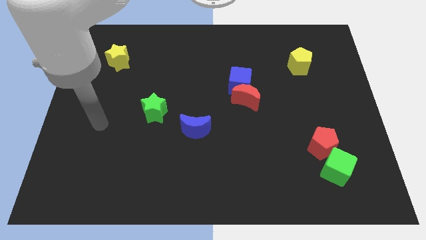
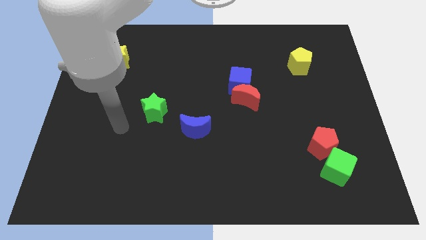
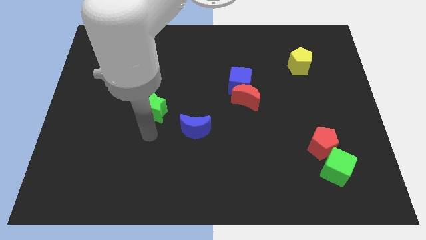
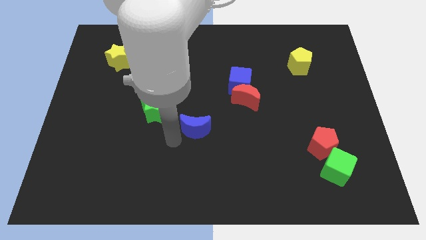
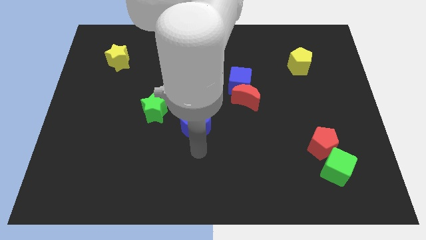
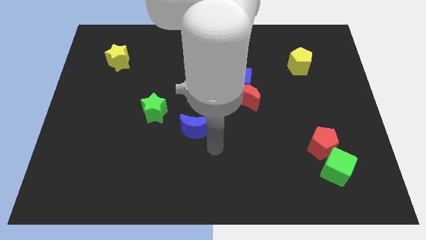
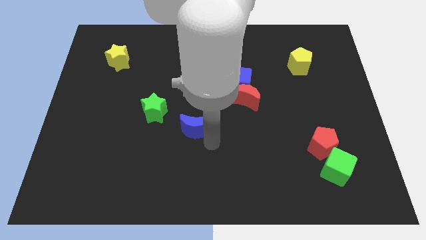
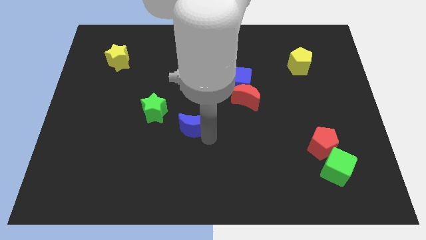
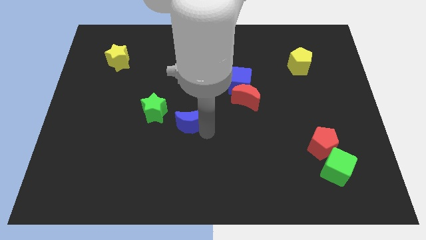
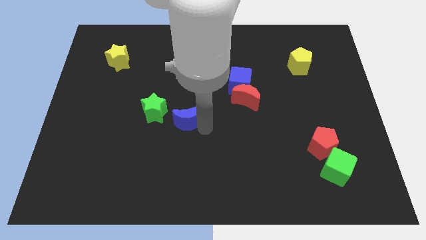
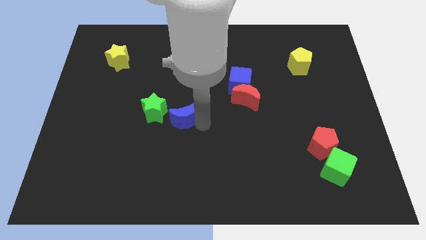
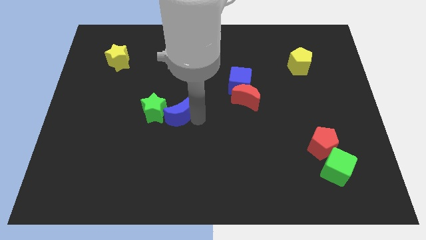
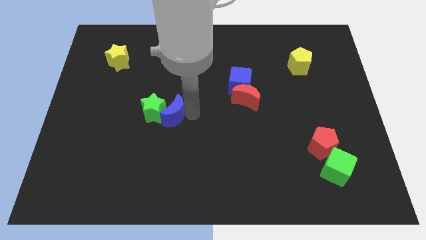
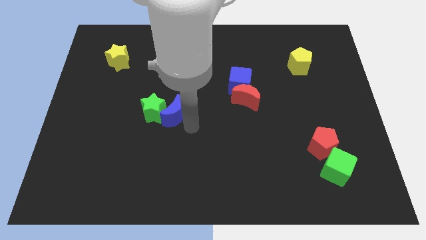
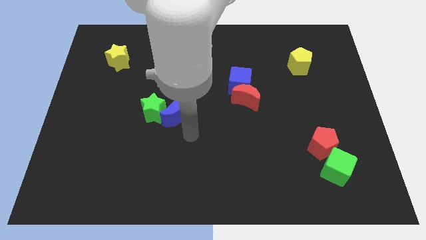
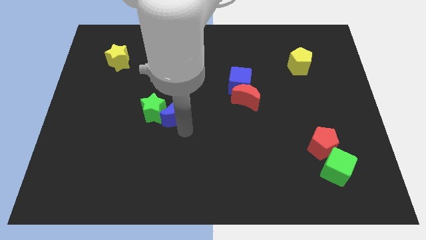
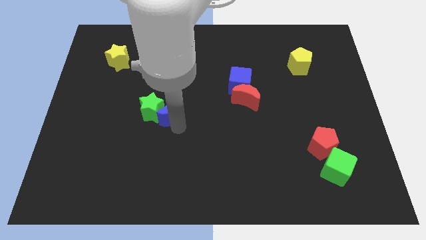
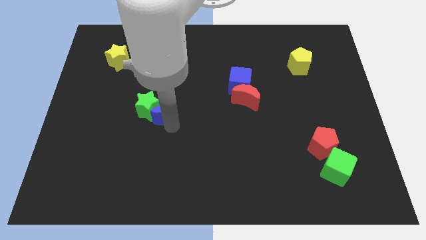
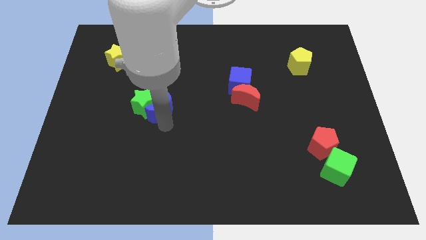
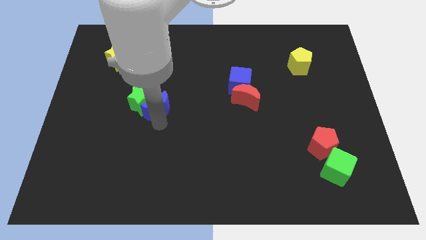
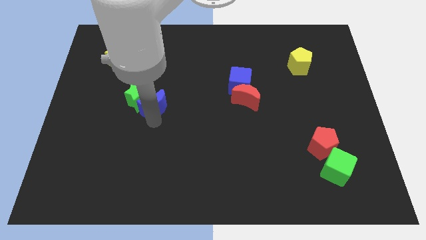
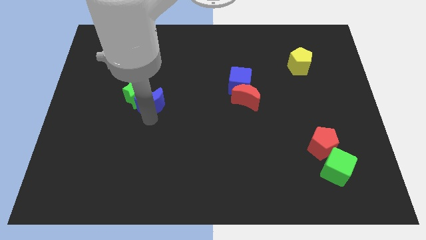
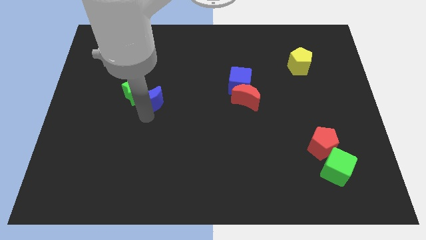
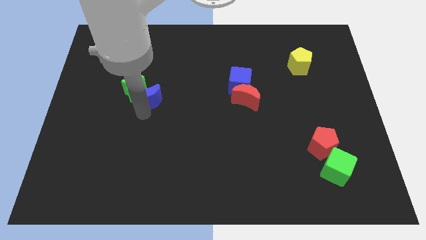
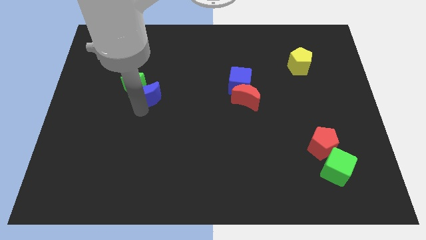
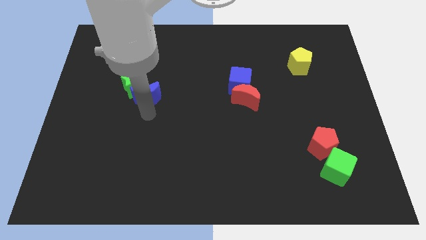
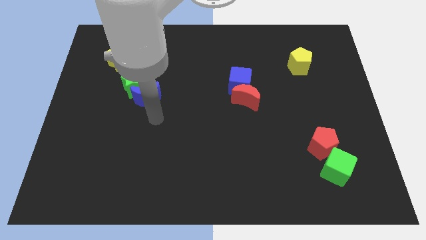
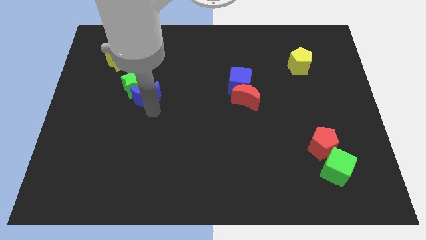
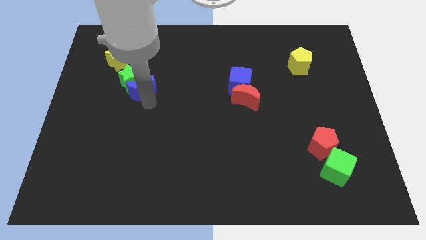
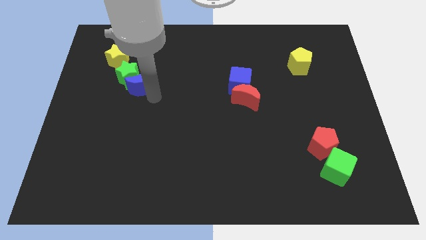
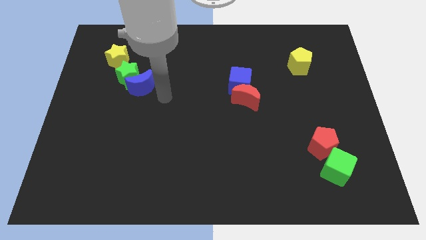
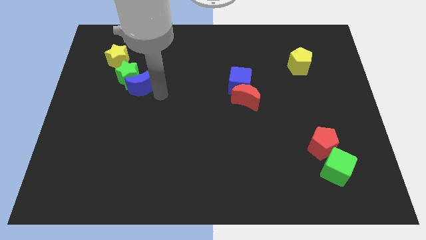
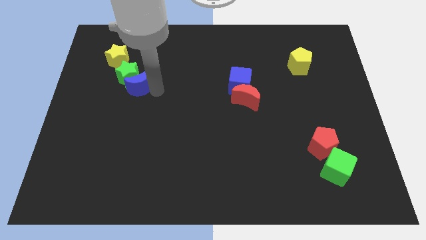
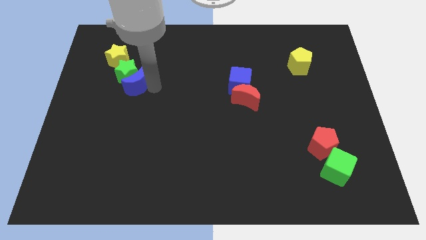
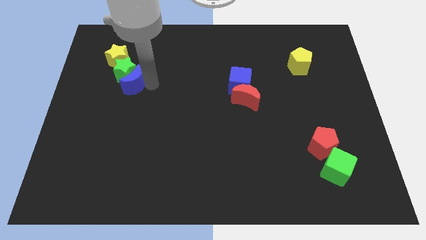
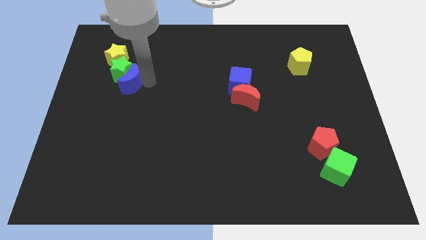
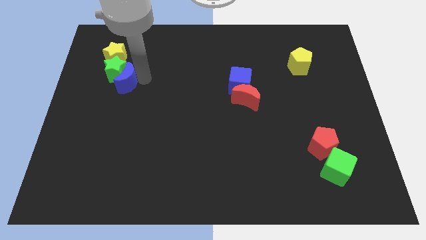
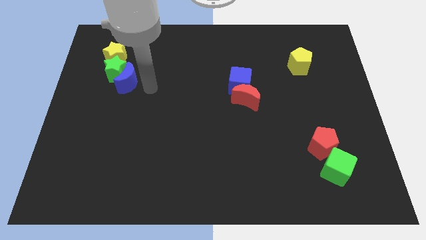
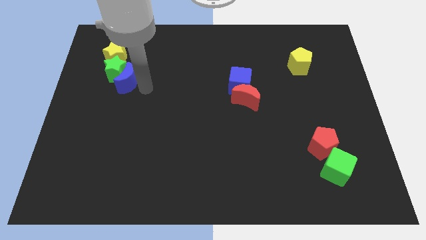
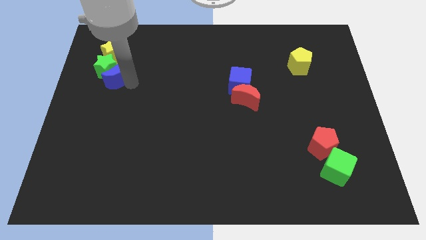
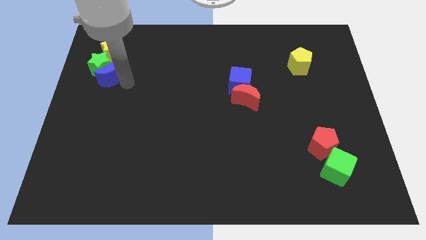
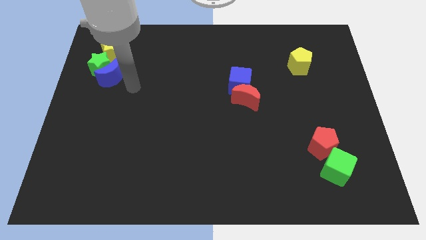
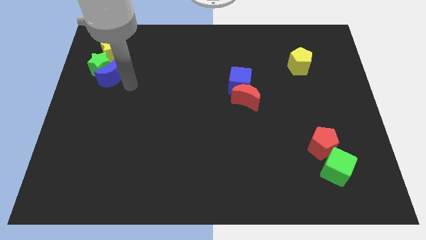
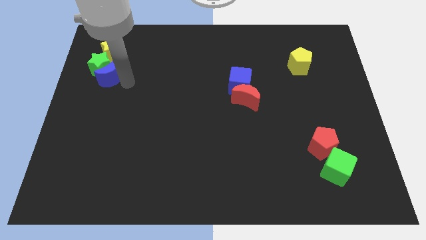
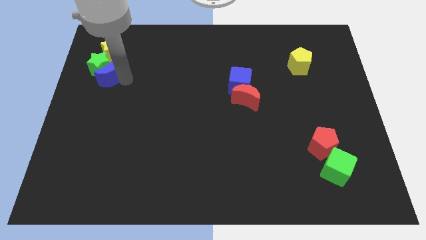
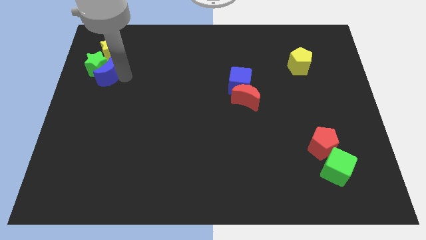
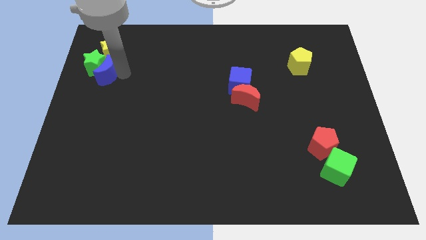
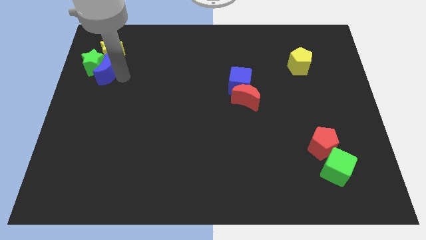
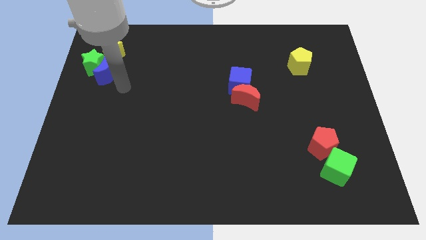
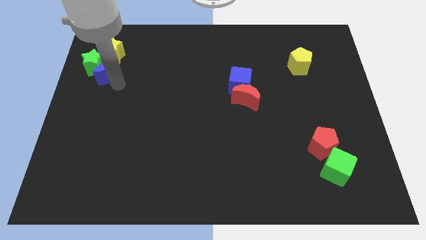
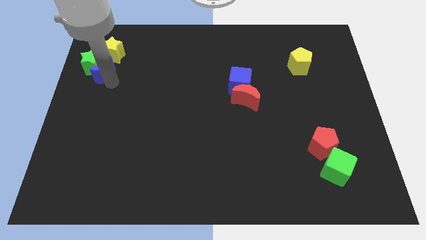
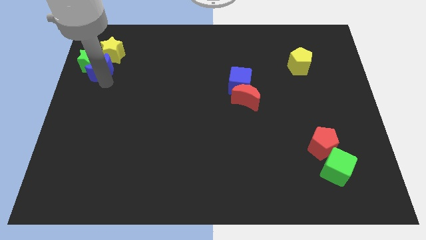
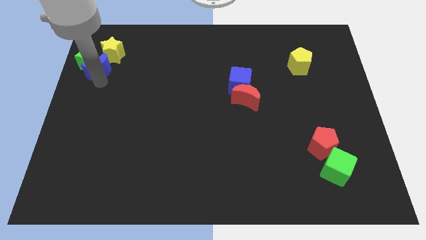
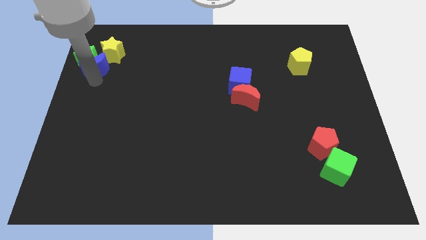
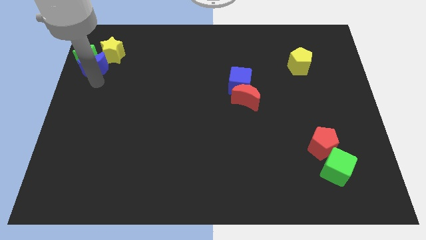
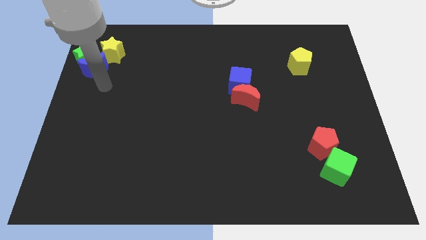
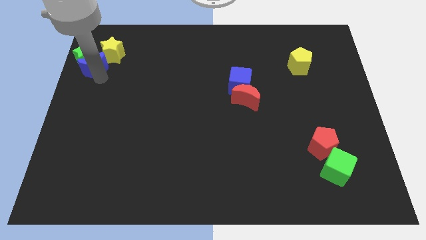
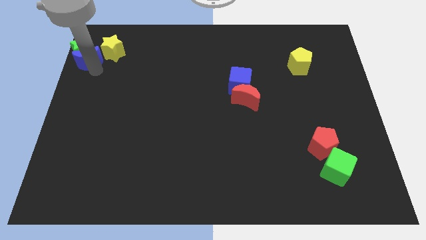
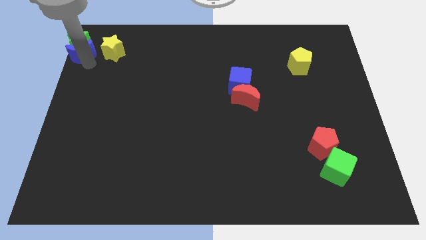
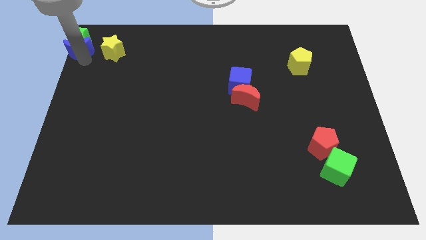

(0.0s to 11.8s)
move the blue moon to the top left

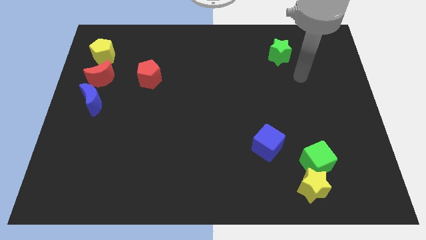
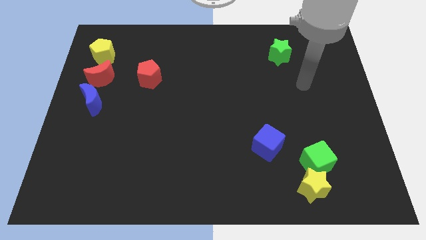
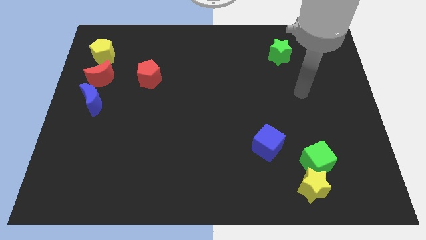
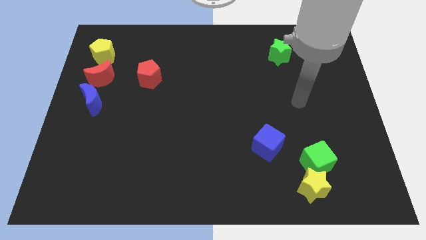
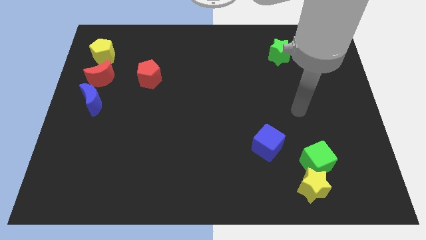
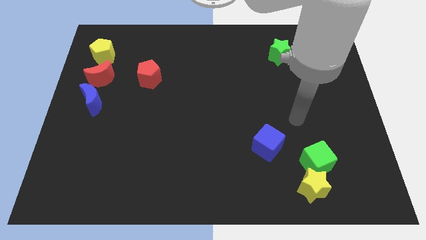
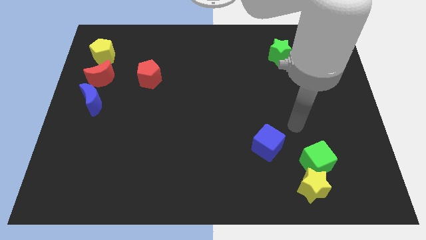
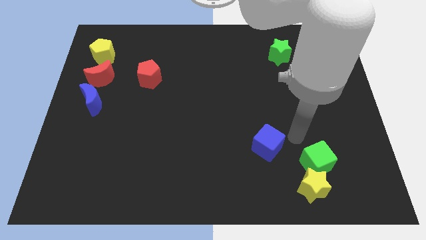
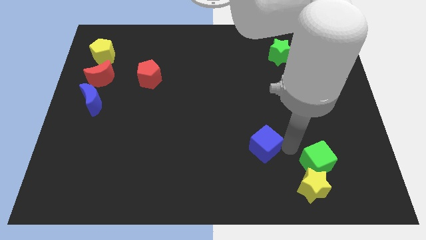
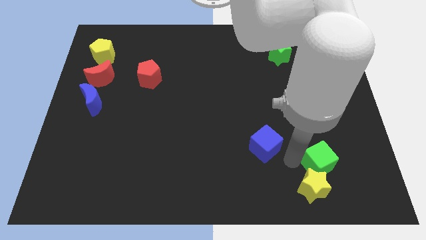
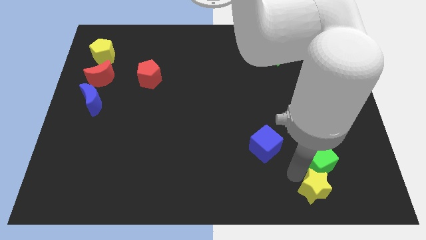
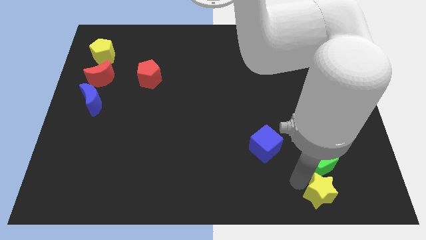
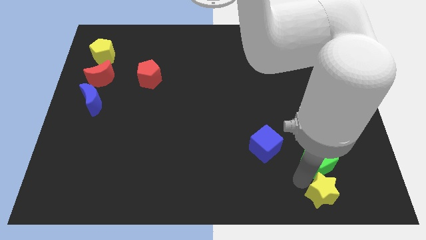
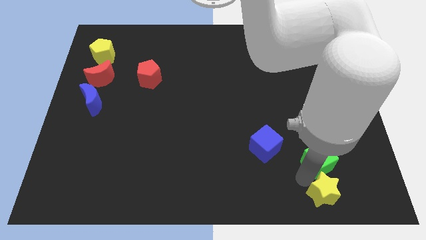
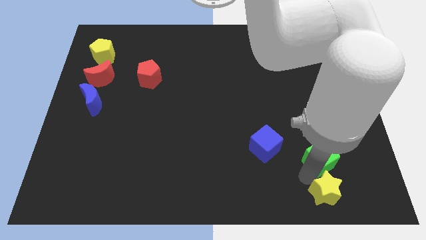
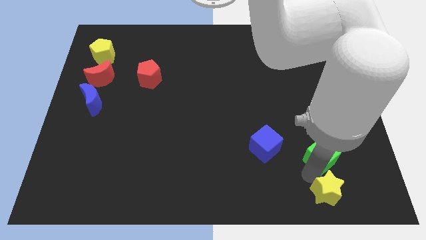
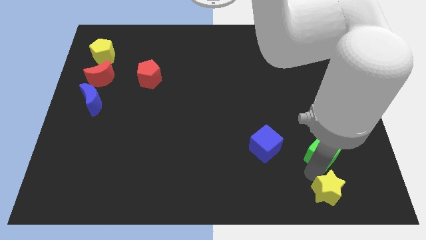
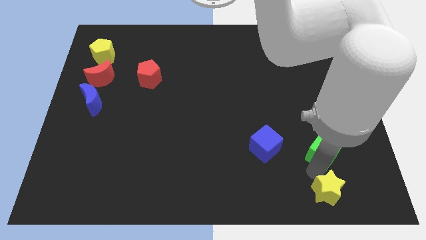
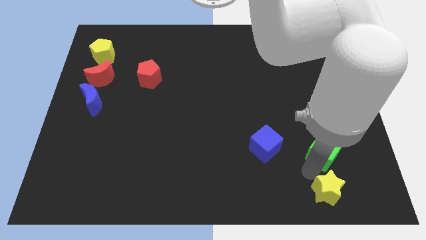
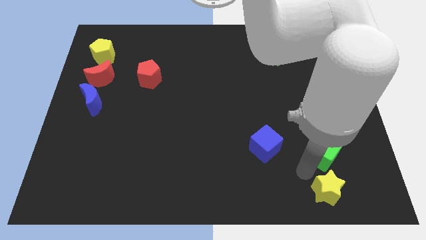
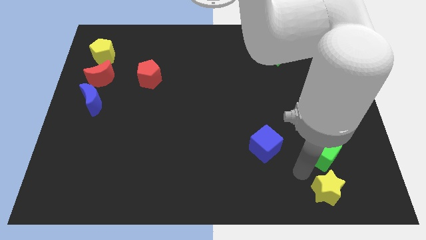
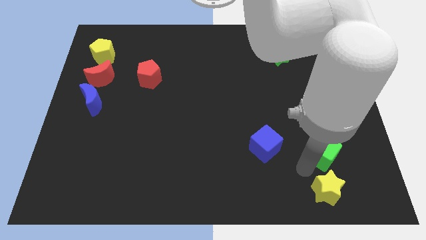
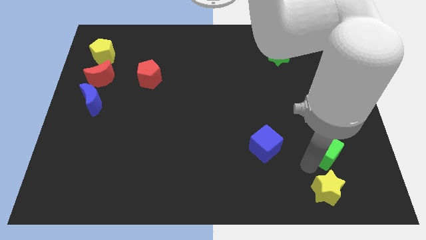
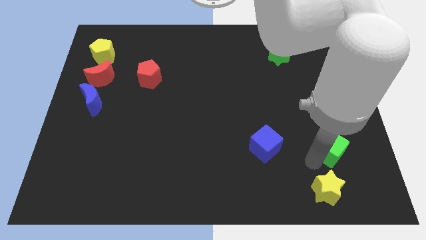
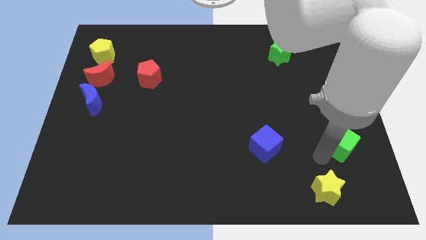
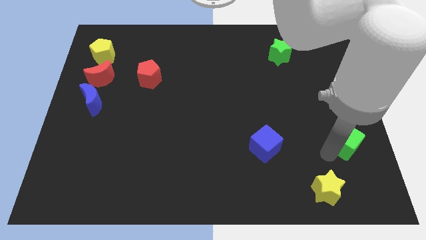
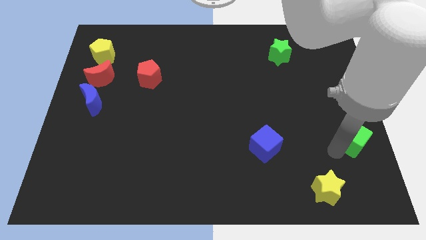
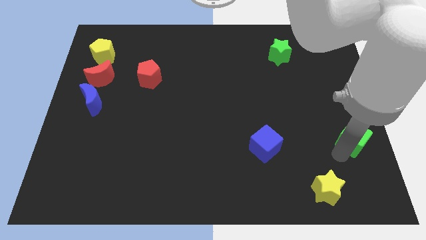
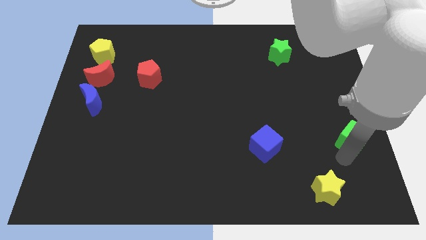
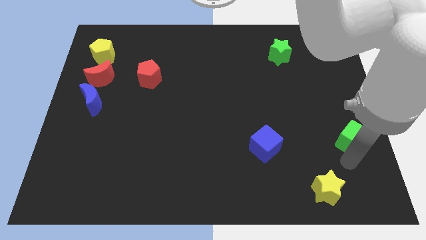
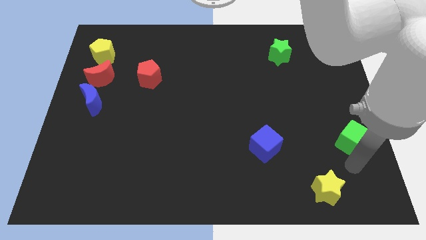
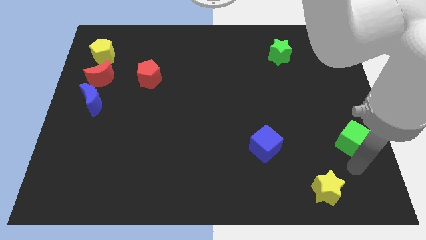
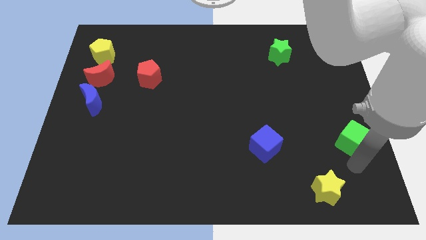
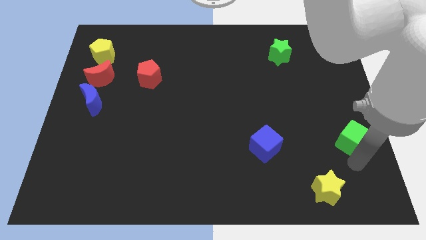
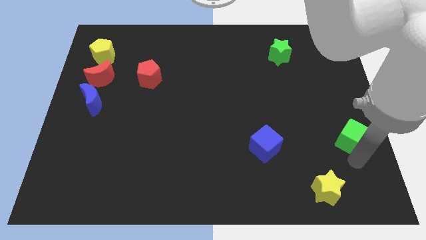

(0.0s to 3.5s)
slide the green cube to the right side
